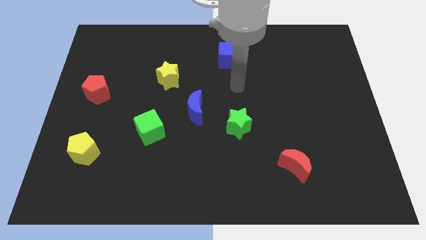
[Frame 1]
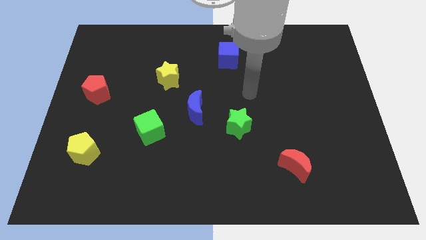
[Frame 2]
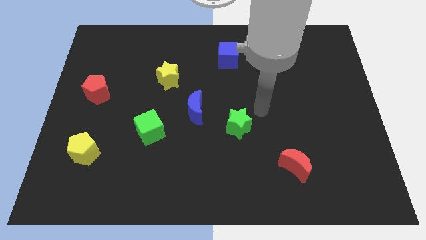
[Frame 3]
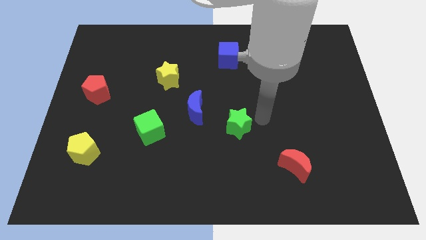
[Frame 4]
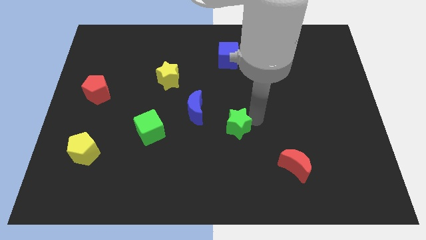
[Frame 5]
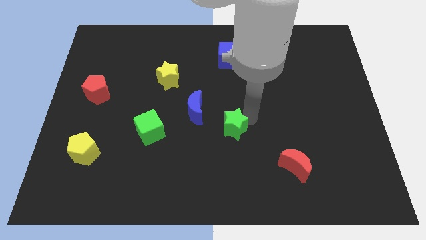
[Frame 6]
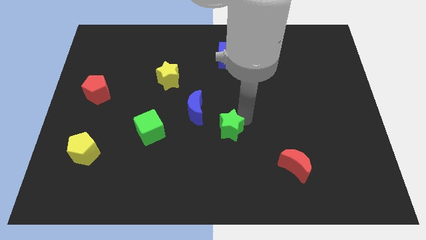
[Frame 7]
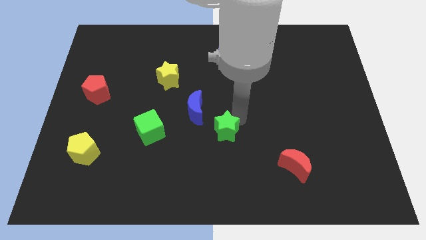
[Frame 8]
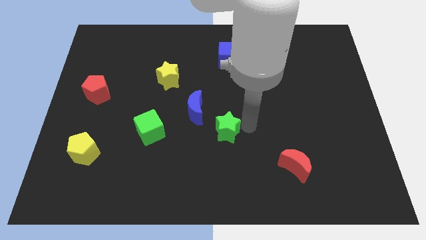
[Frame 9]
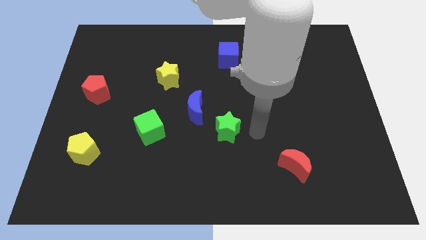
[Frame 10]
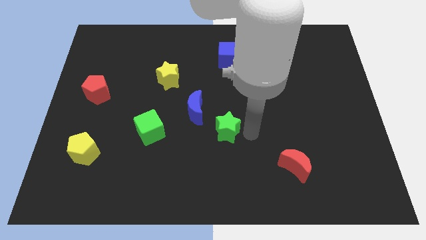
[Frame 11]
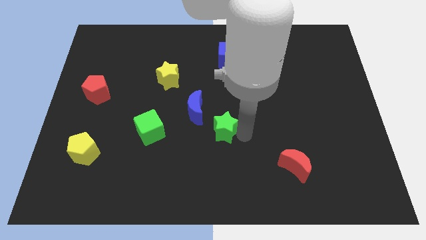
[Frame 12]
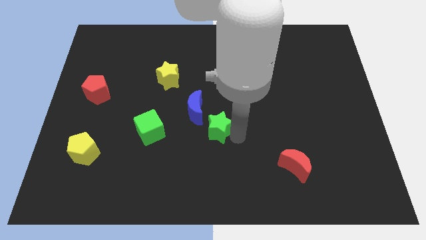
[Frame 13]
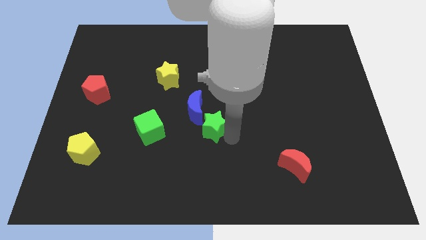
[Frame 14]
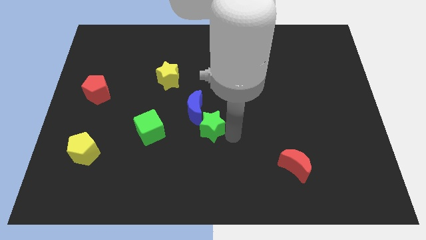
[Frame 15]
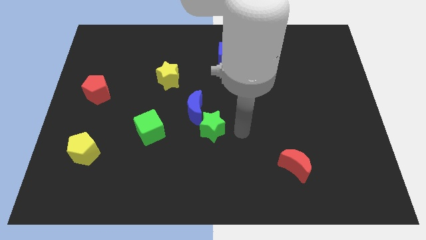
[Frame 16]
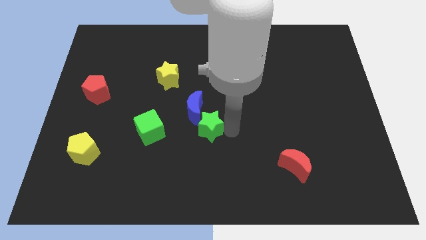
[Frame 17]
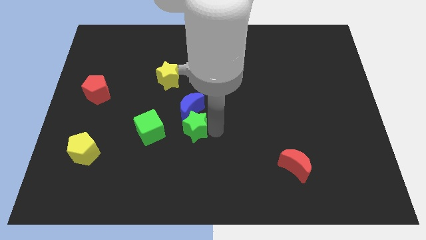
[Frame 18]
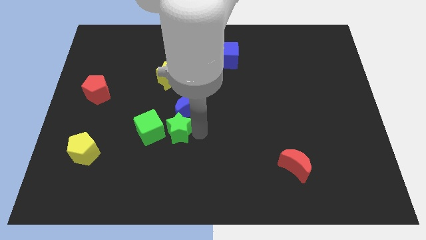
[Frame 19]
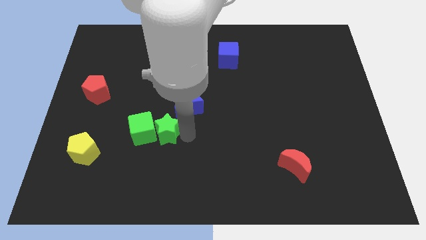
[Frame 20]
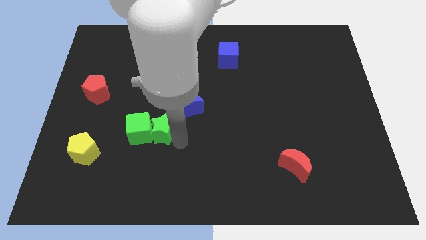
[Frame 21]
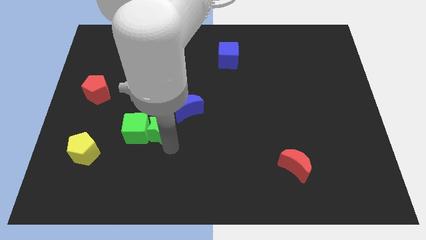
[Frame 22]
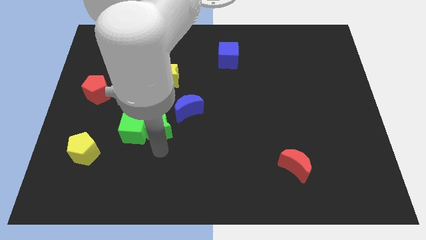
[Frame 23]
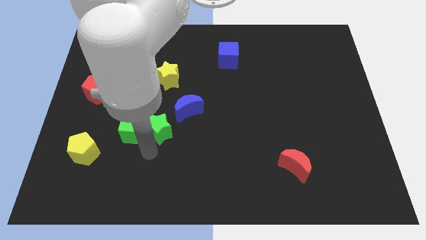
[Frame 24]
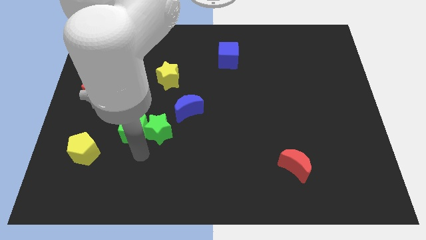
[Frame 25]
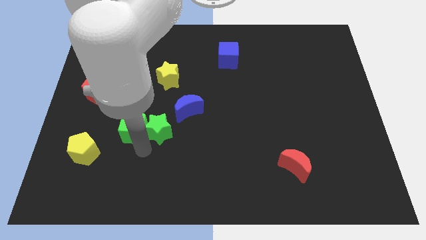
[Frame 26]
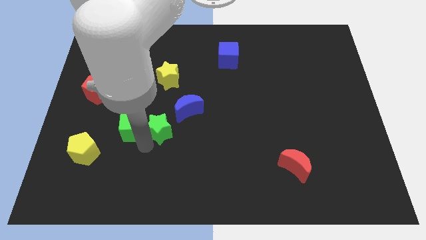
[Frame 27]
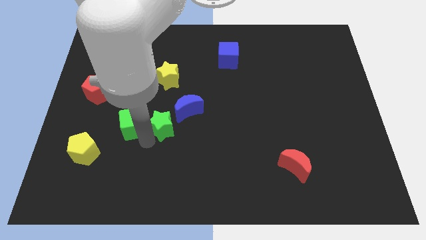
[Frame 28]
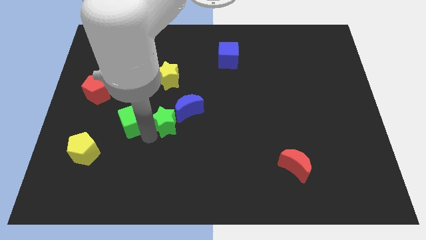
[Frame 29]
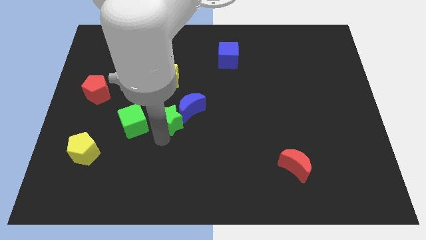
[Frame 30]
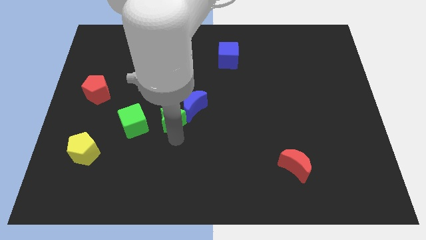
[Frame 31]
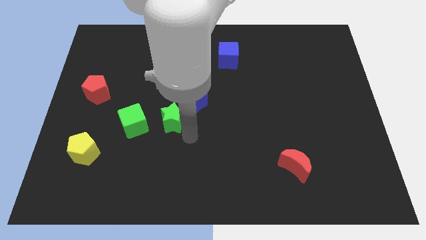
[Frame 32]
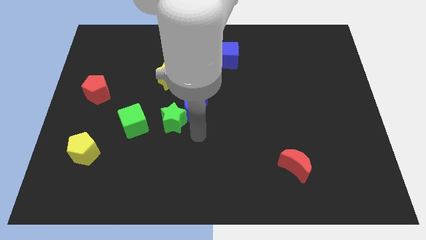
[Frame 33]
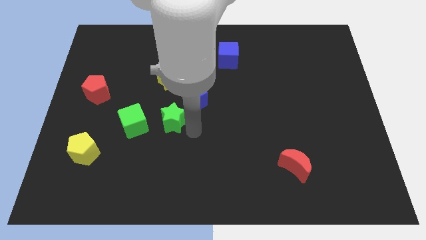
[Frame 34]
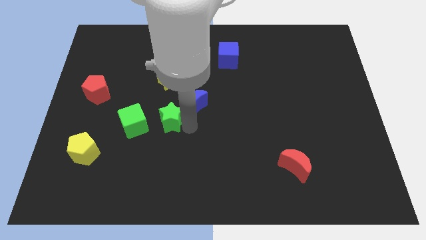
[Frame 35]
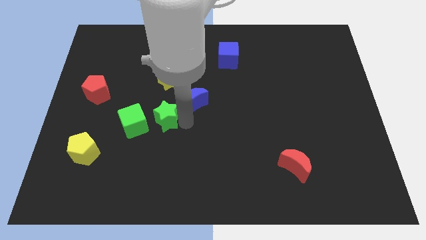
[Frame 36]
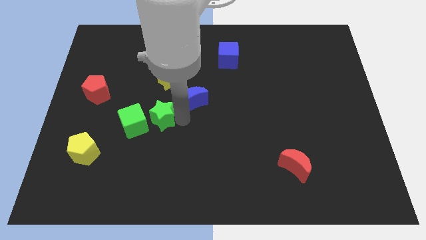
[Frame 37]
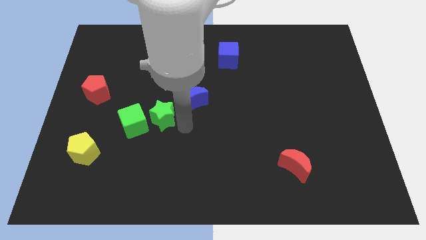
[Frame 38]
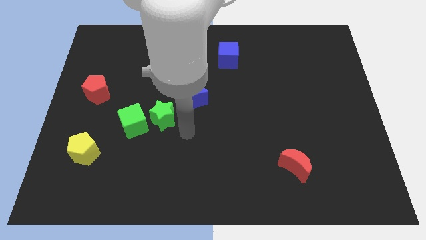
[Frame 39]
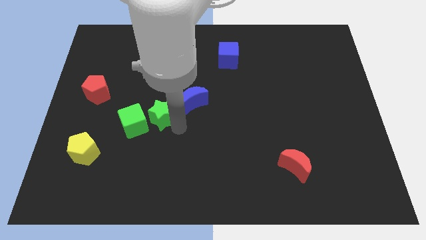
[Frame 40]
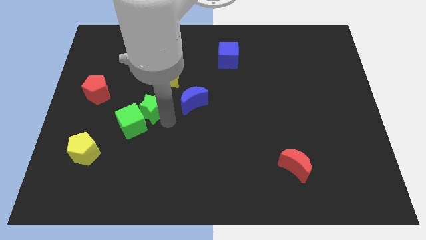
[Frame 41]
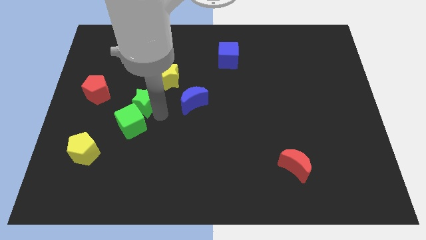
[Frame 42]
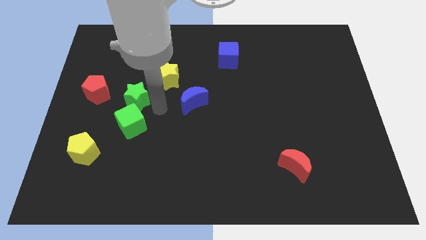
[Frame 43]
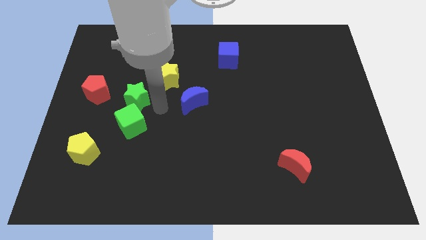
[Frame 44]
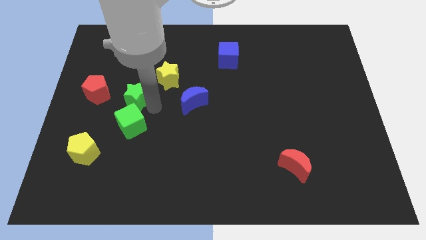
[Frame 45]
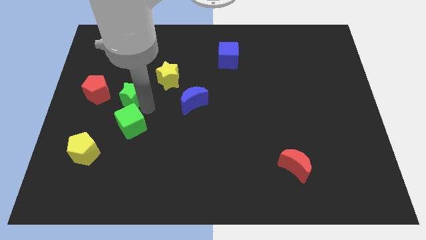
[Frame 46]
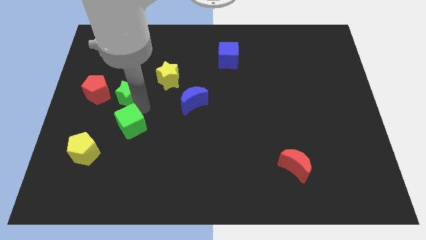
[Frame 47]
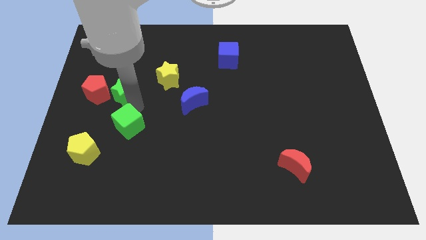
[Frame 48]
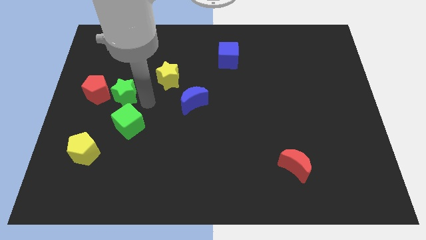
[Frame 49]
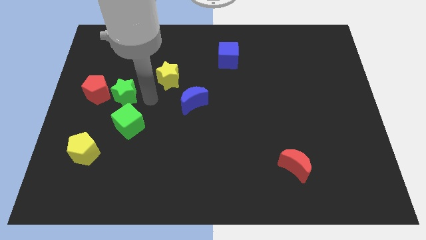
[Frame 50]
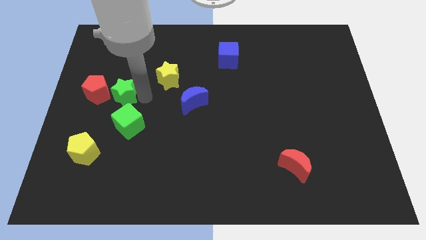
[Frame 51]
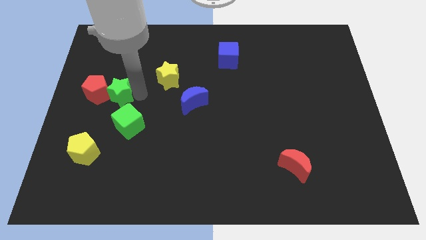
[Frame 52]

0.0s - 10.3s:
push the green star next to the red pentagon

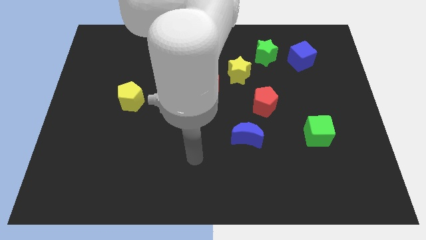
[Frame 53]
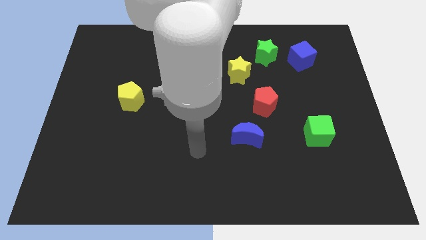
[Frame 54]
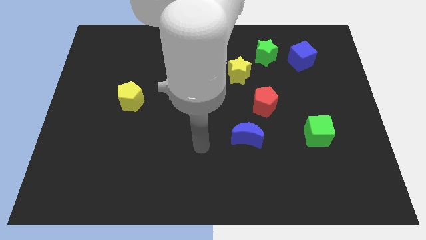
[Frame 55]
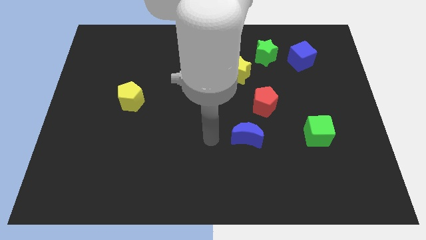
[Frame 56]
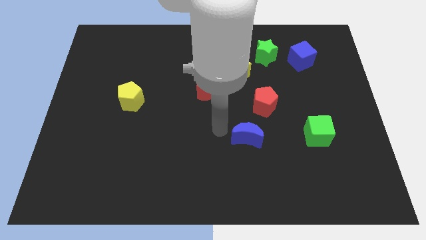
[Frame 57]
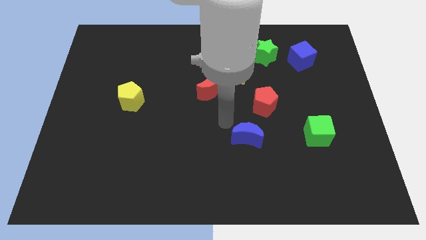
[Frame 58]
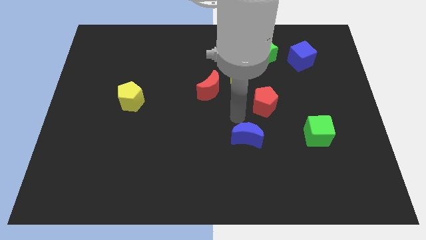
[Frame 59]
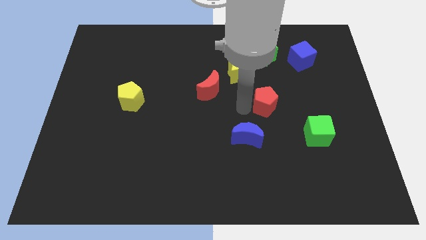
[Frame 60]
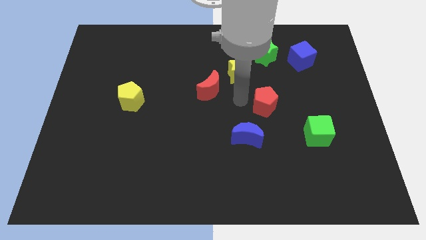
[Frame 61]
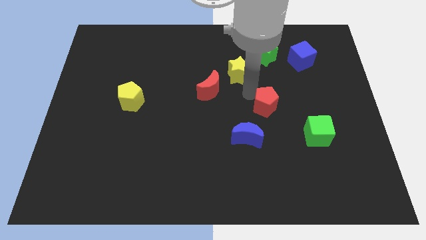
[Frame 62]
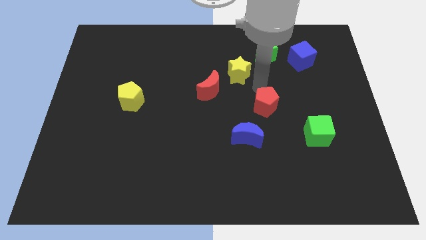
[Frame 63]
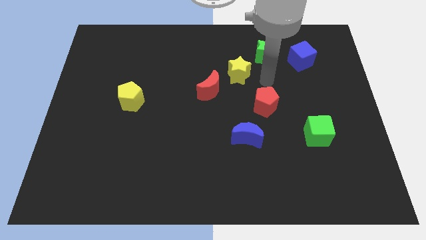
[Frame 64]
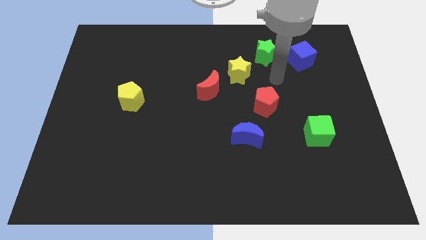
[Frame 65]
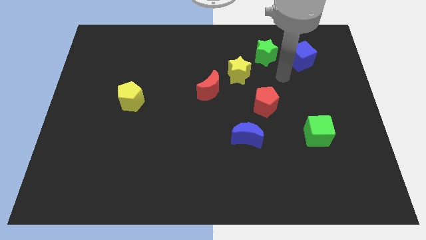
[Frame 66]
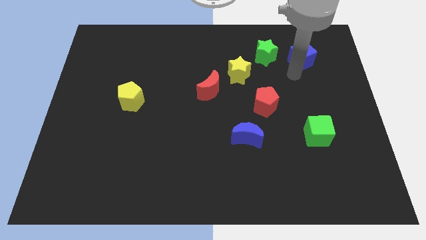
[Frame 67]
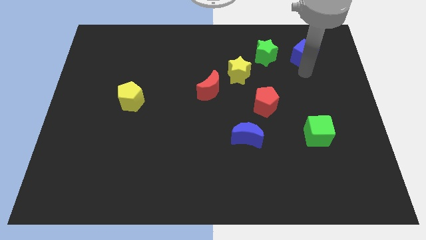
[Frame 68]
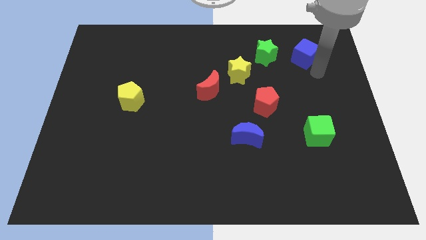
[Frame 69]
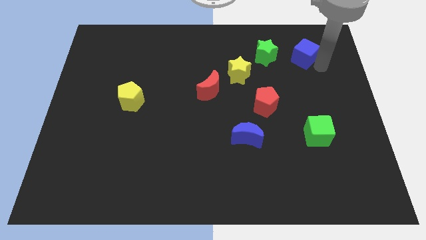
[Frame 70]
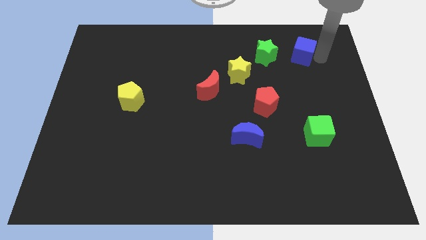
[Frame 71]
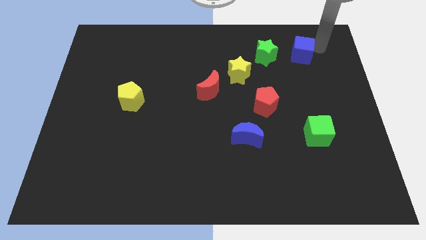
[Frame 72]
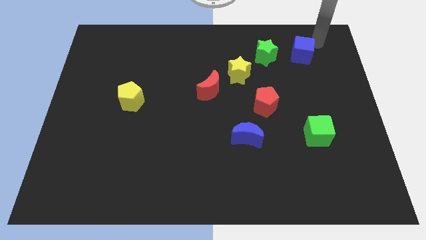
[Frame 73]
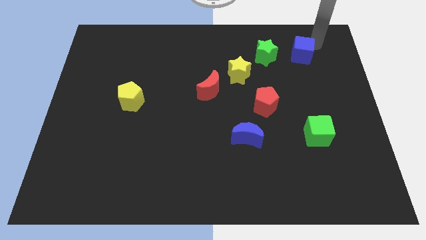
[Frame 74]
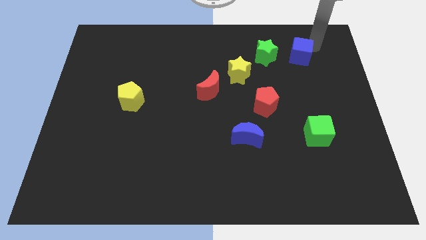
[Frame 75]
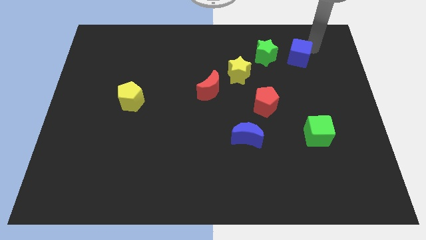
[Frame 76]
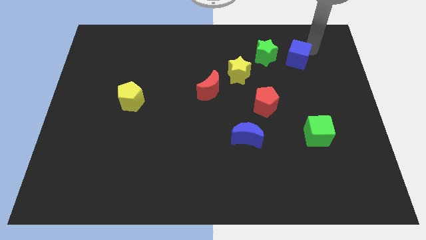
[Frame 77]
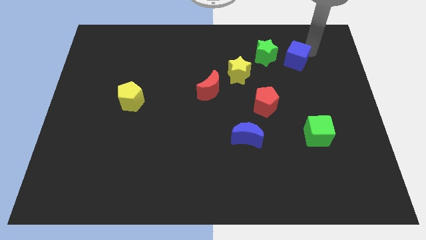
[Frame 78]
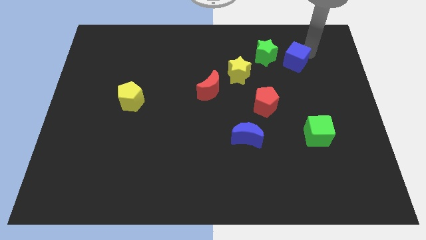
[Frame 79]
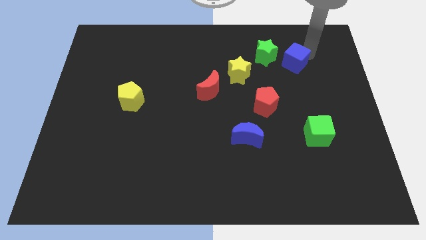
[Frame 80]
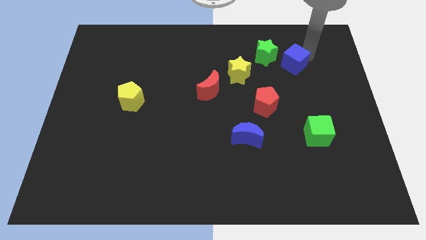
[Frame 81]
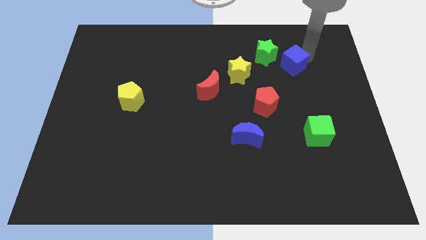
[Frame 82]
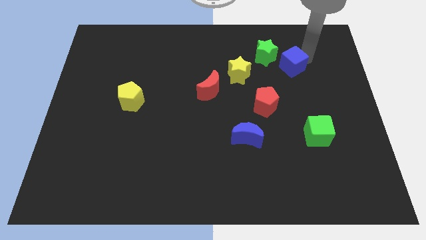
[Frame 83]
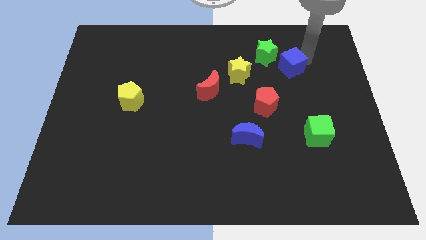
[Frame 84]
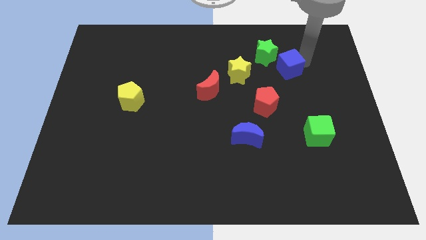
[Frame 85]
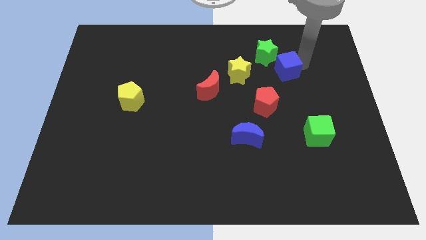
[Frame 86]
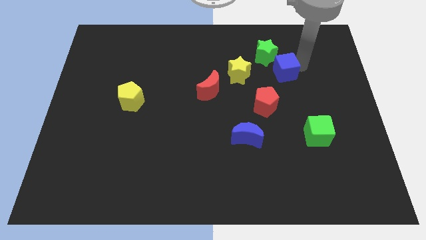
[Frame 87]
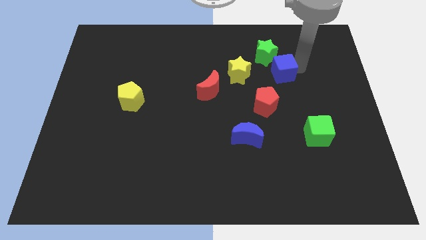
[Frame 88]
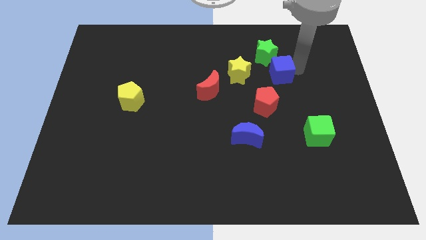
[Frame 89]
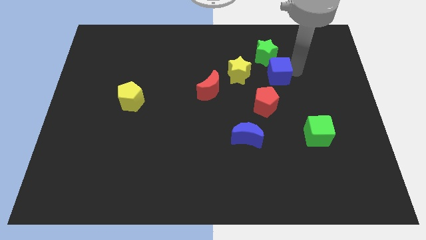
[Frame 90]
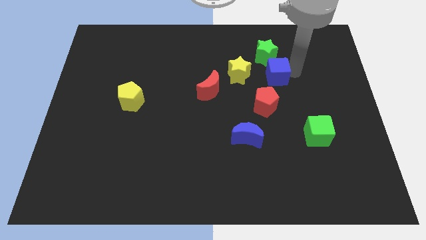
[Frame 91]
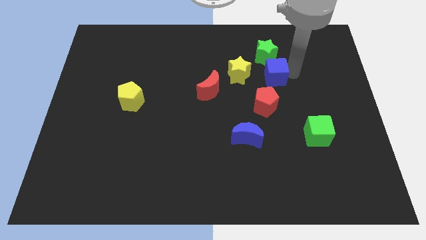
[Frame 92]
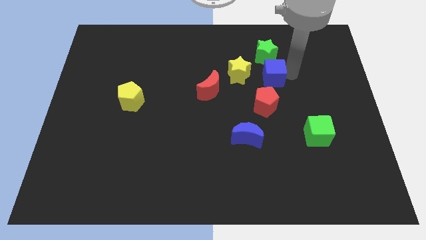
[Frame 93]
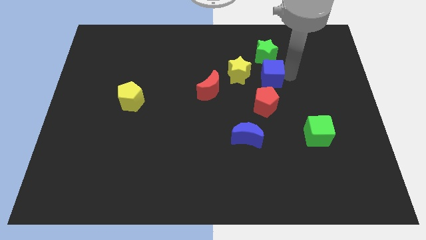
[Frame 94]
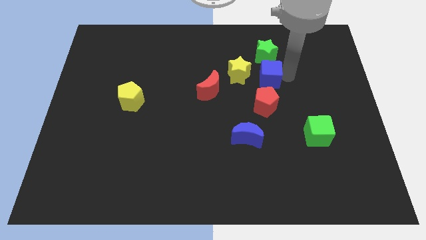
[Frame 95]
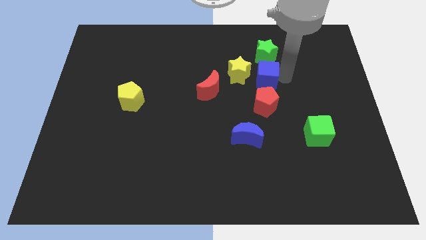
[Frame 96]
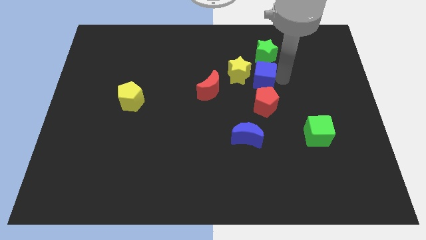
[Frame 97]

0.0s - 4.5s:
slide the blue cube towards the yellow star
